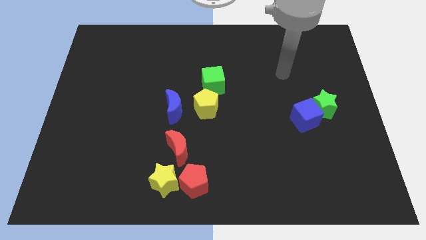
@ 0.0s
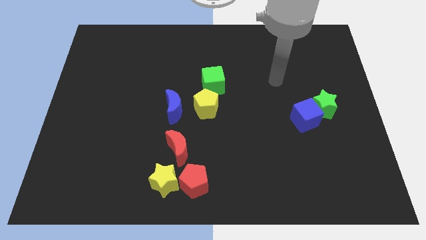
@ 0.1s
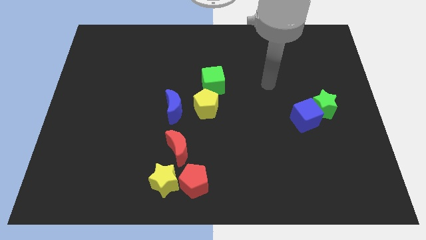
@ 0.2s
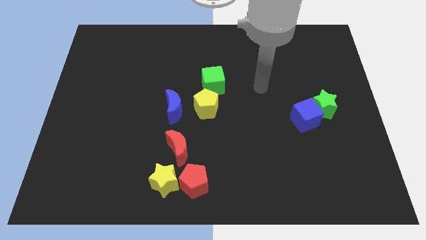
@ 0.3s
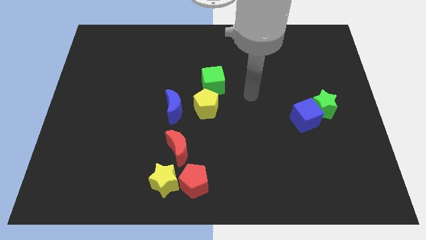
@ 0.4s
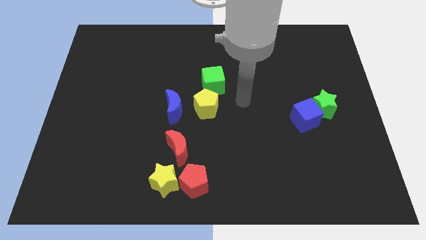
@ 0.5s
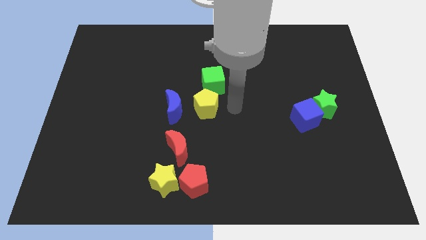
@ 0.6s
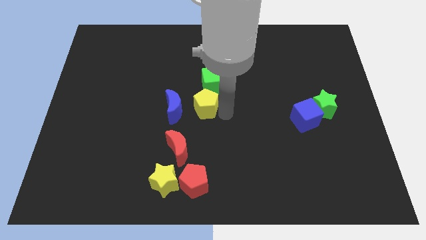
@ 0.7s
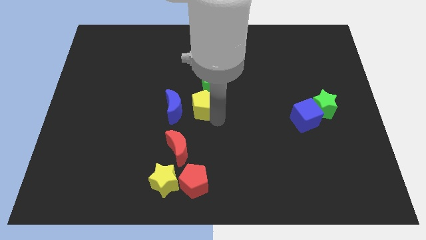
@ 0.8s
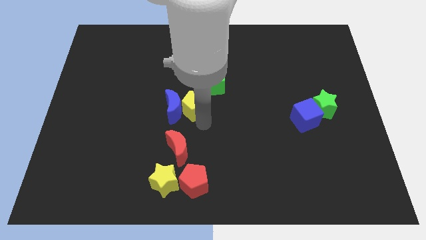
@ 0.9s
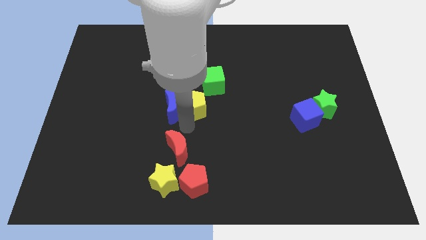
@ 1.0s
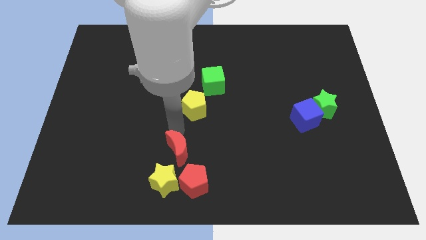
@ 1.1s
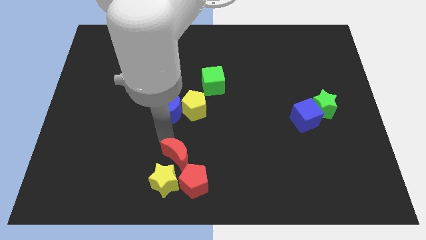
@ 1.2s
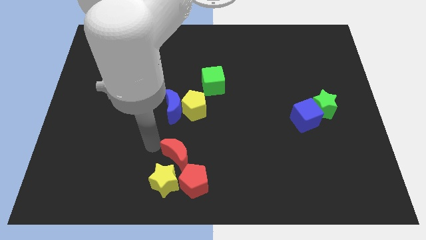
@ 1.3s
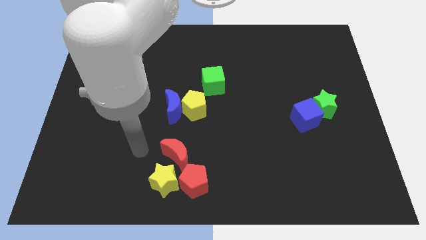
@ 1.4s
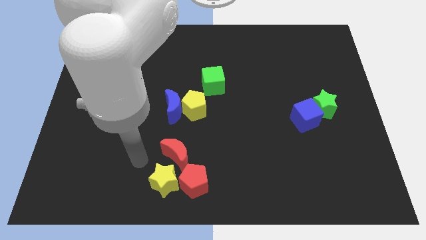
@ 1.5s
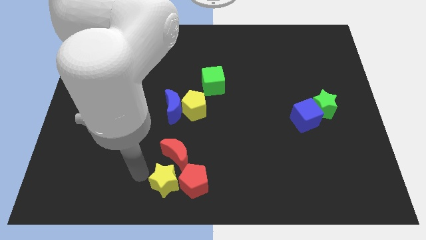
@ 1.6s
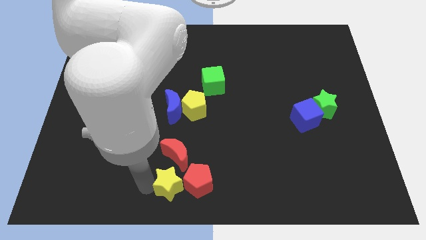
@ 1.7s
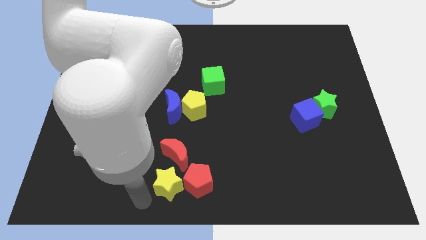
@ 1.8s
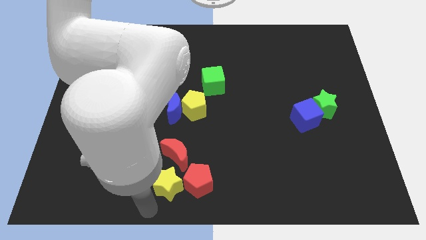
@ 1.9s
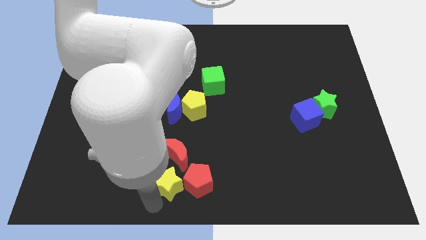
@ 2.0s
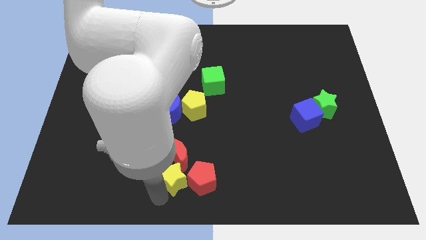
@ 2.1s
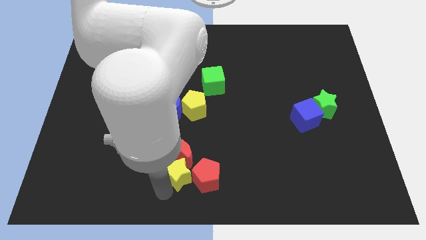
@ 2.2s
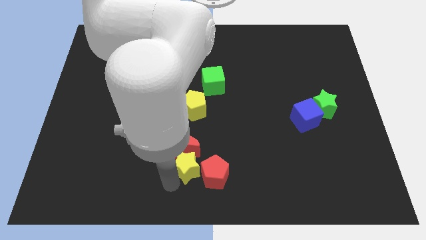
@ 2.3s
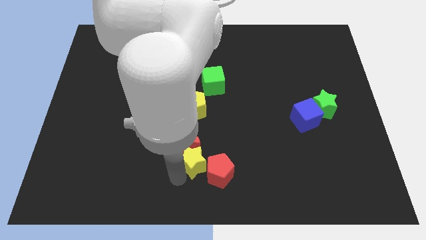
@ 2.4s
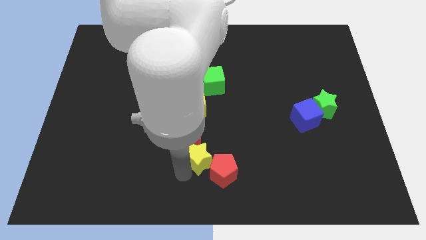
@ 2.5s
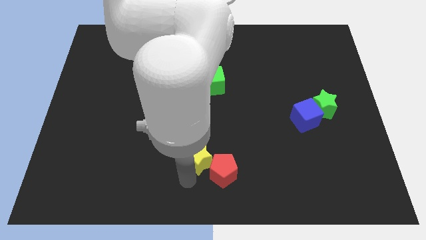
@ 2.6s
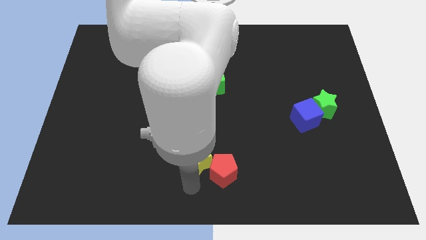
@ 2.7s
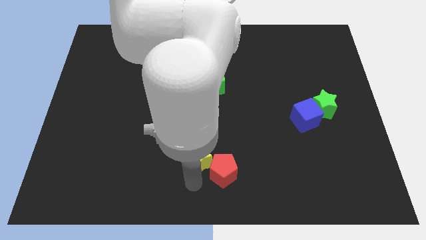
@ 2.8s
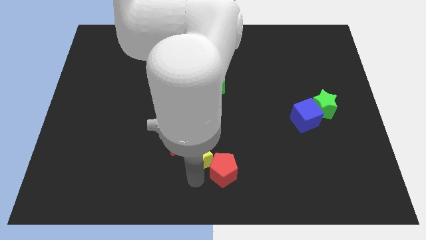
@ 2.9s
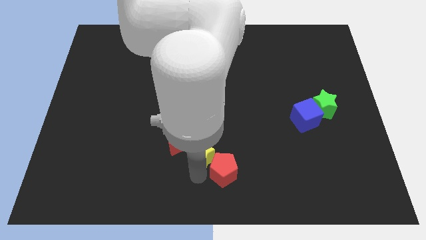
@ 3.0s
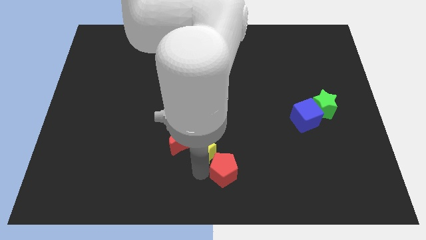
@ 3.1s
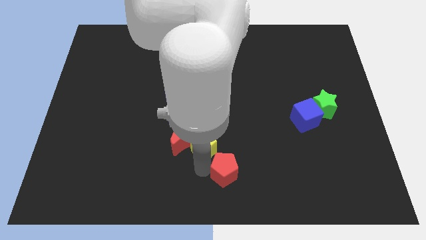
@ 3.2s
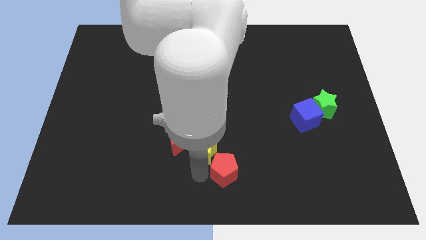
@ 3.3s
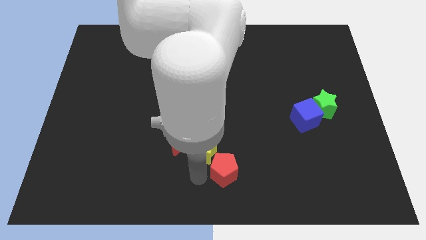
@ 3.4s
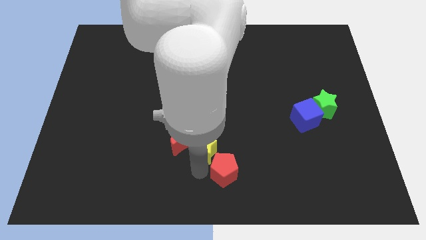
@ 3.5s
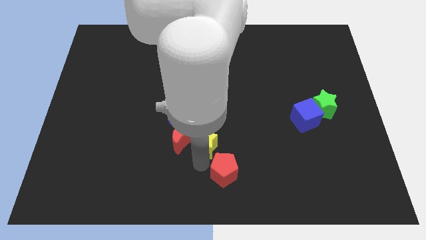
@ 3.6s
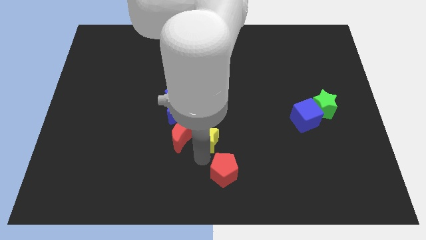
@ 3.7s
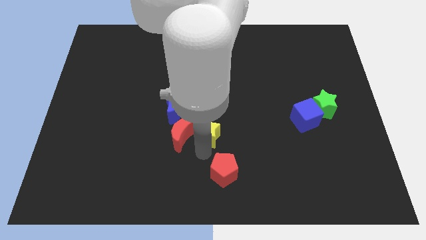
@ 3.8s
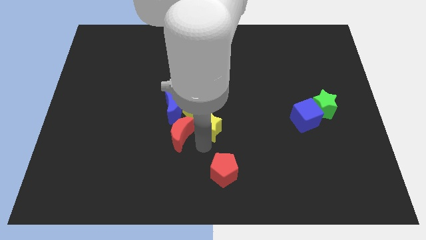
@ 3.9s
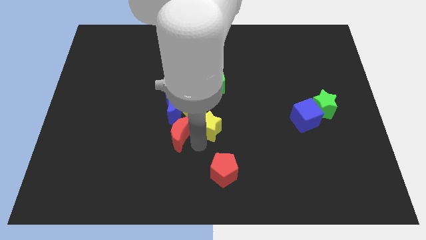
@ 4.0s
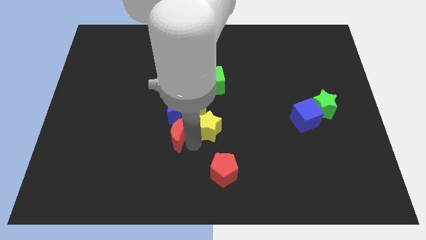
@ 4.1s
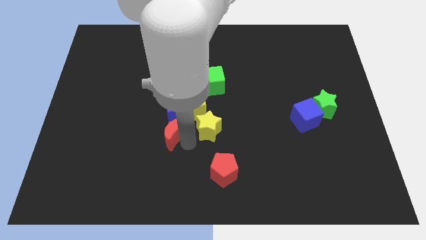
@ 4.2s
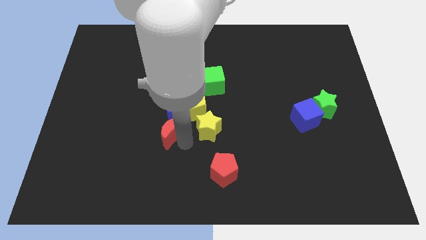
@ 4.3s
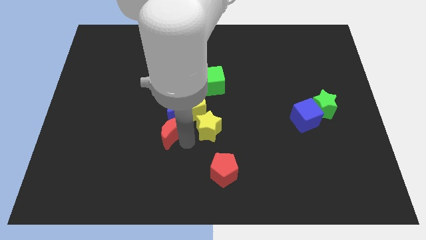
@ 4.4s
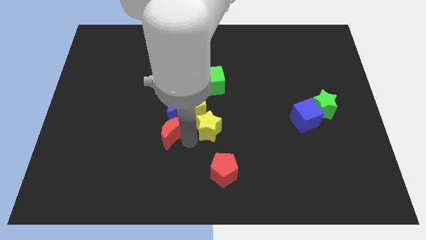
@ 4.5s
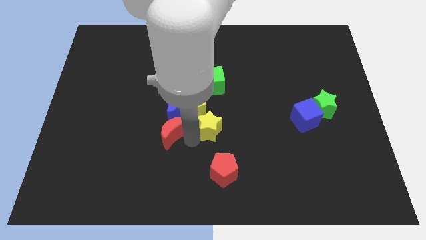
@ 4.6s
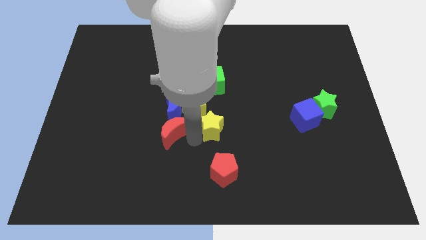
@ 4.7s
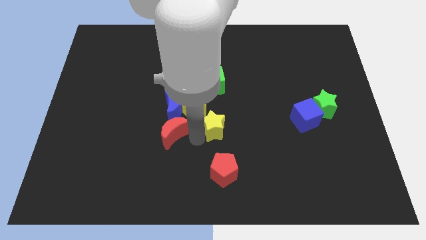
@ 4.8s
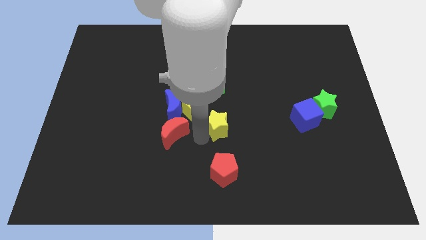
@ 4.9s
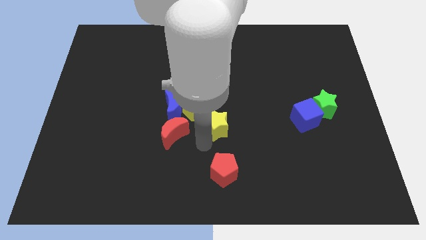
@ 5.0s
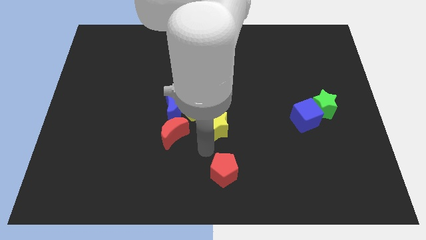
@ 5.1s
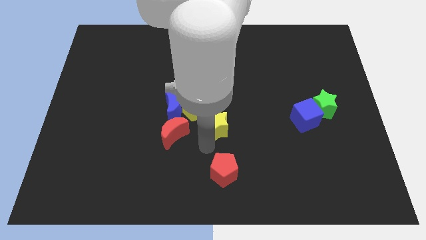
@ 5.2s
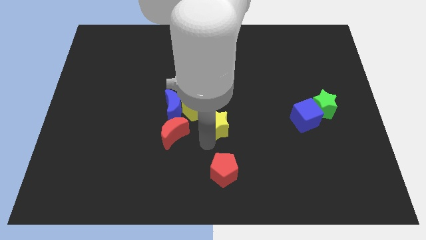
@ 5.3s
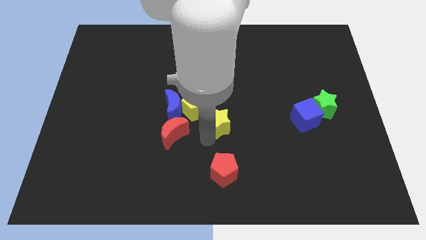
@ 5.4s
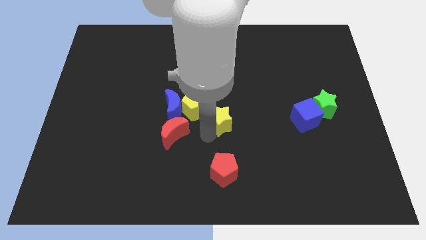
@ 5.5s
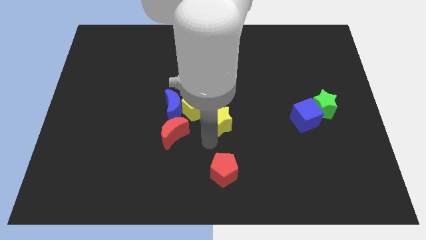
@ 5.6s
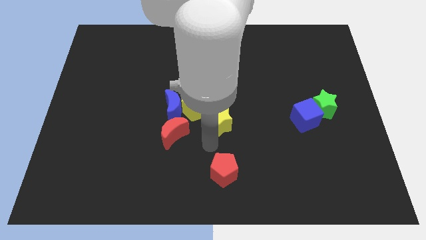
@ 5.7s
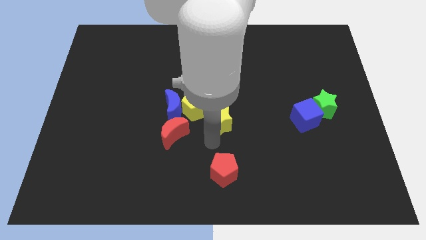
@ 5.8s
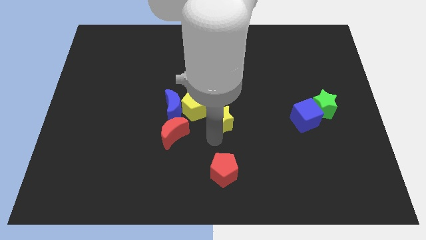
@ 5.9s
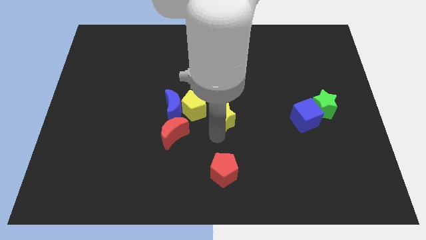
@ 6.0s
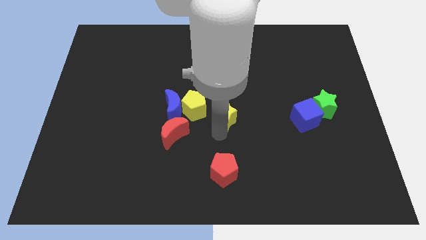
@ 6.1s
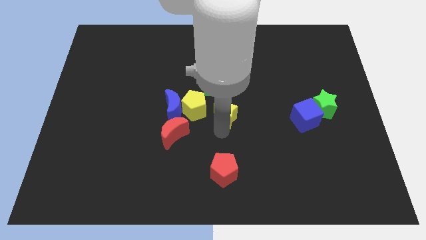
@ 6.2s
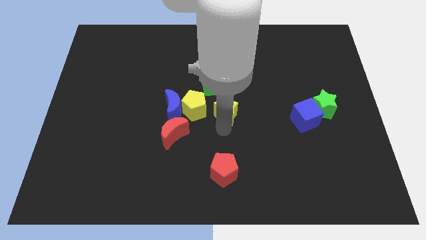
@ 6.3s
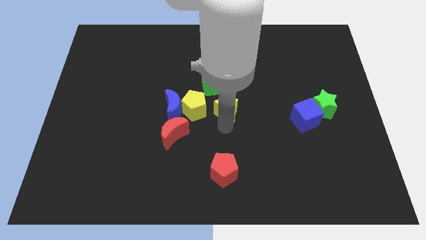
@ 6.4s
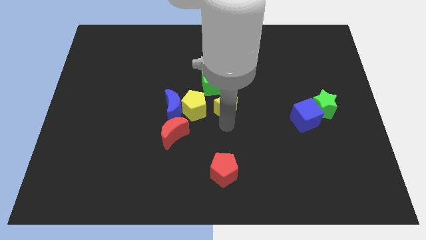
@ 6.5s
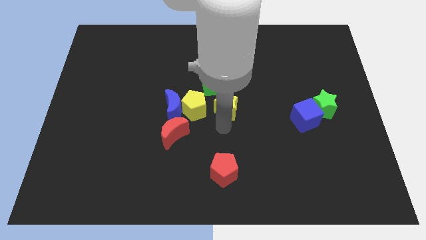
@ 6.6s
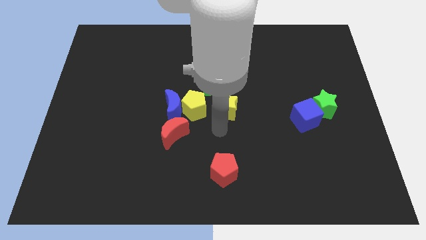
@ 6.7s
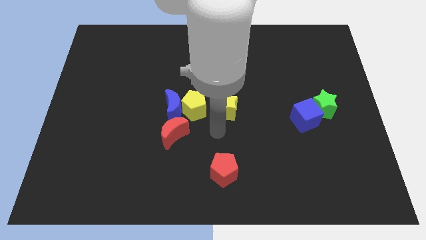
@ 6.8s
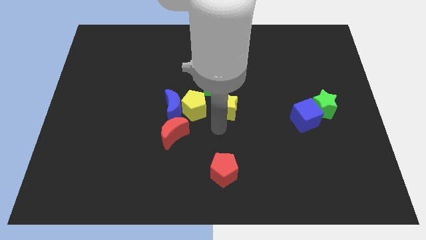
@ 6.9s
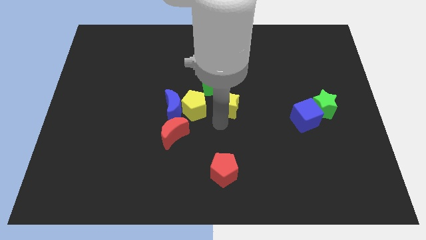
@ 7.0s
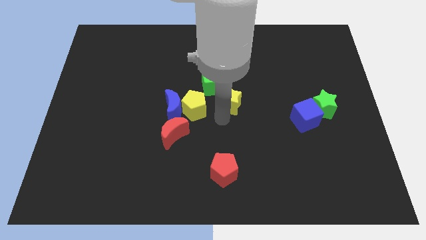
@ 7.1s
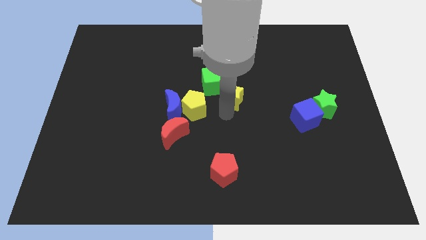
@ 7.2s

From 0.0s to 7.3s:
slide the yellow star towards the green cube
